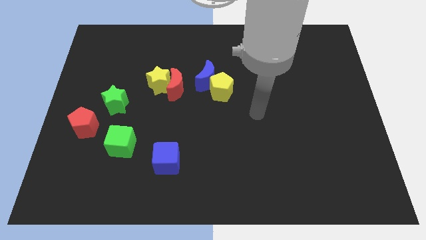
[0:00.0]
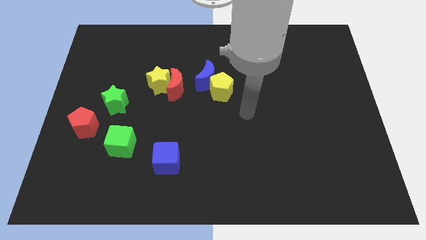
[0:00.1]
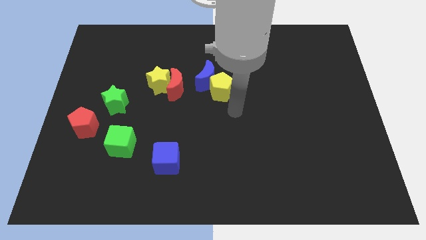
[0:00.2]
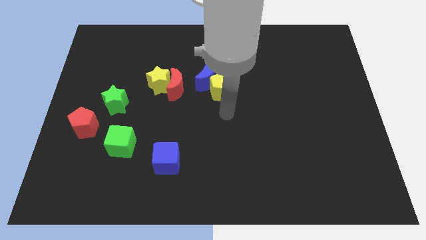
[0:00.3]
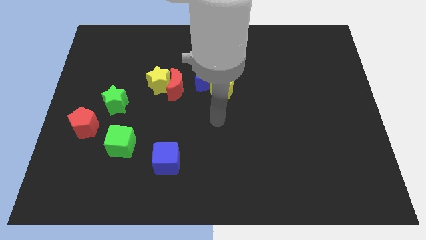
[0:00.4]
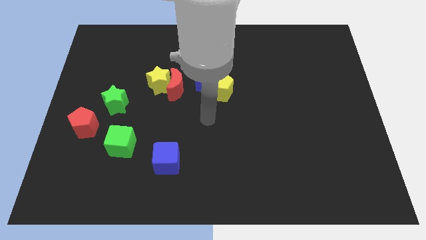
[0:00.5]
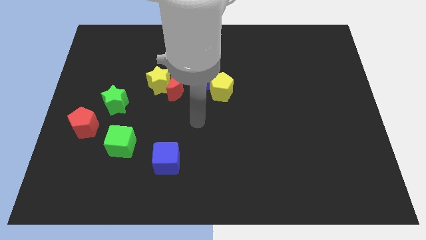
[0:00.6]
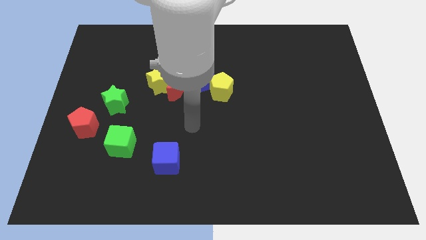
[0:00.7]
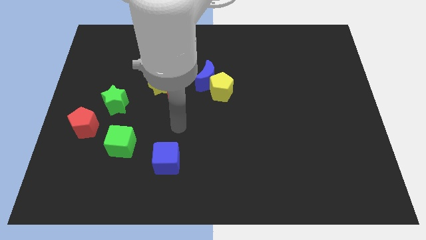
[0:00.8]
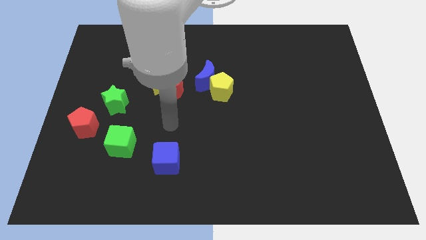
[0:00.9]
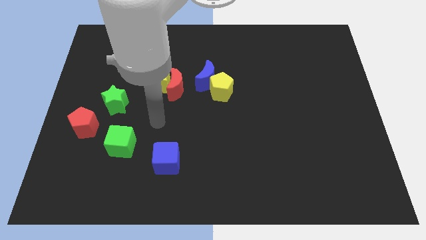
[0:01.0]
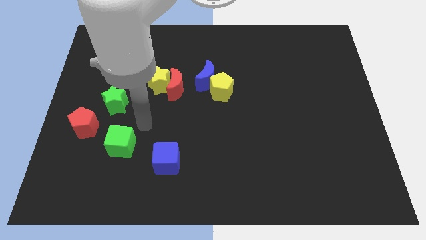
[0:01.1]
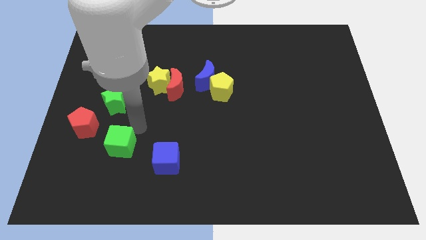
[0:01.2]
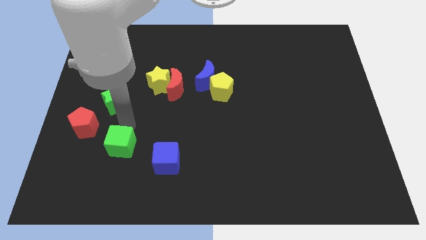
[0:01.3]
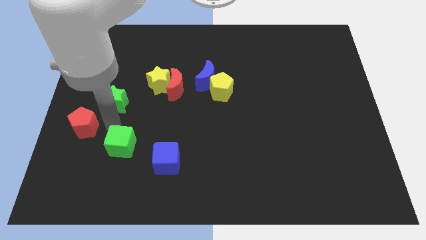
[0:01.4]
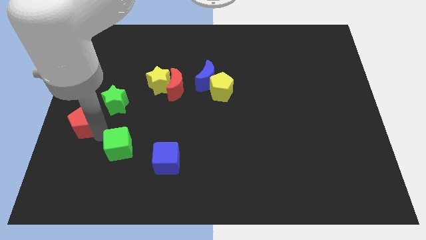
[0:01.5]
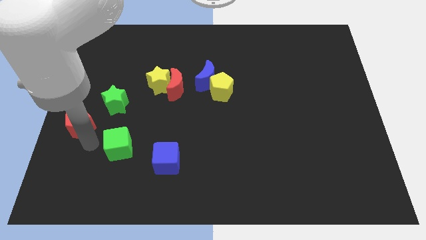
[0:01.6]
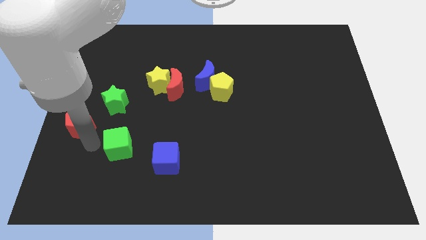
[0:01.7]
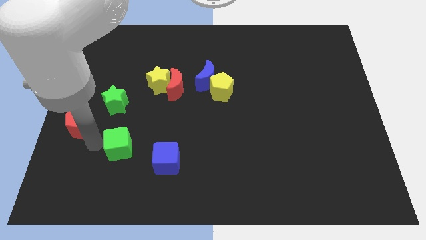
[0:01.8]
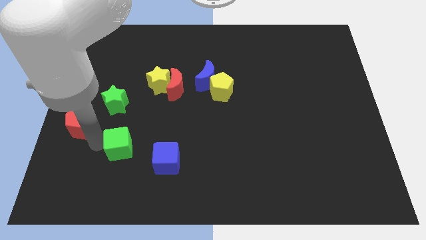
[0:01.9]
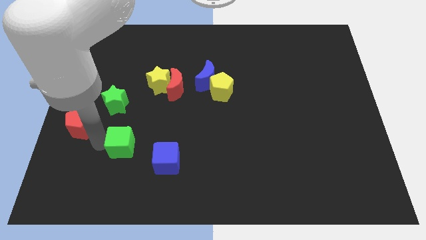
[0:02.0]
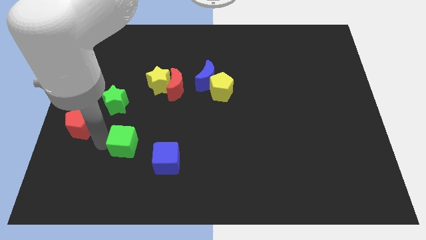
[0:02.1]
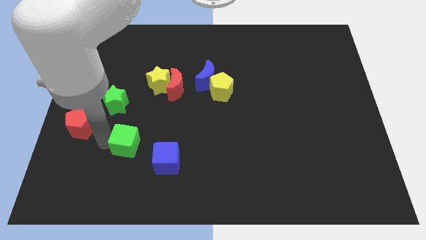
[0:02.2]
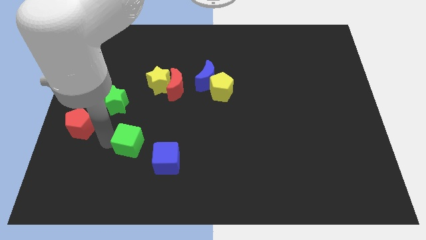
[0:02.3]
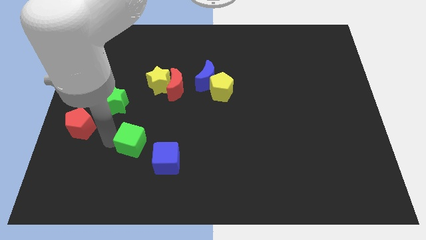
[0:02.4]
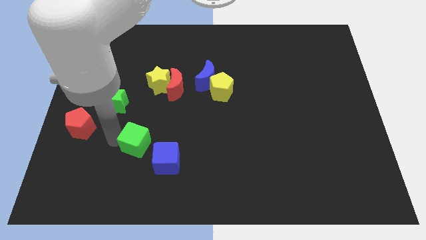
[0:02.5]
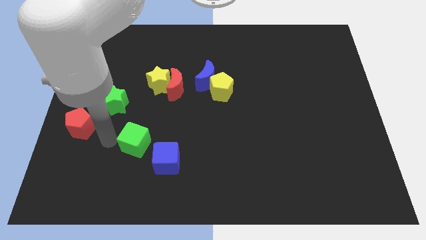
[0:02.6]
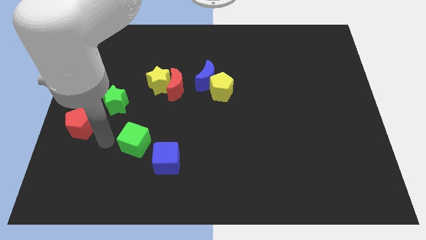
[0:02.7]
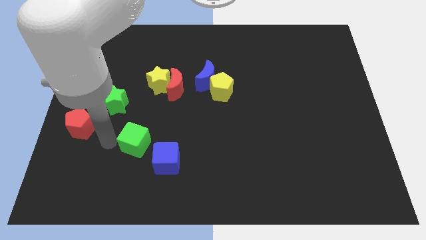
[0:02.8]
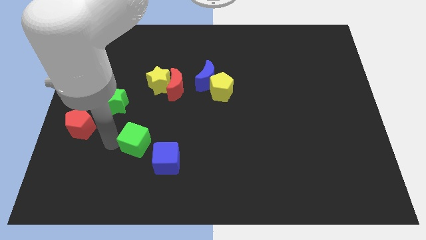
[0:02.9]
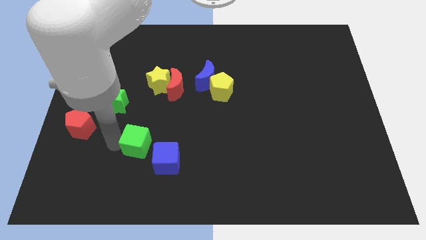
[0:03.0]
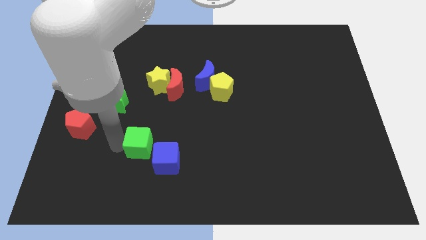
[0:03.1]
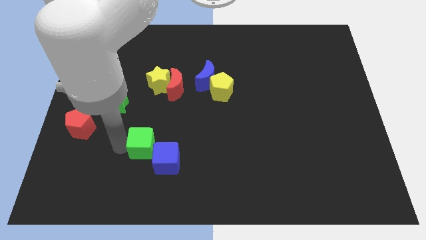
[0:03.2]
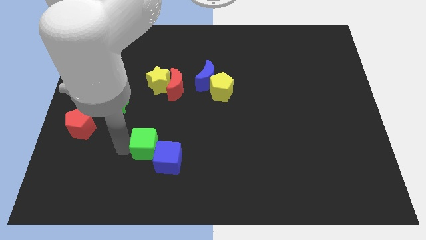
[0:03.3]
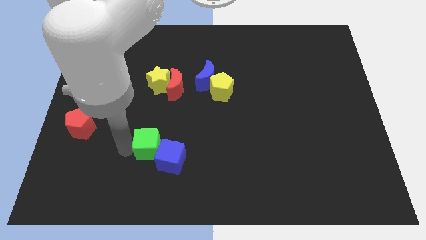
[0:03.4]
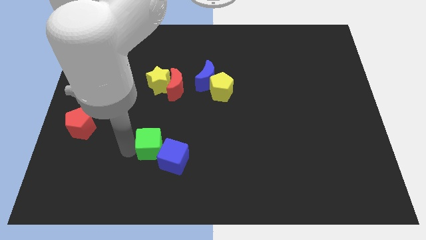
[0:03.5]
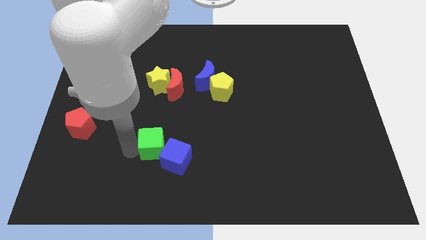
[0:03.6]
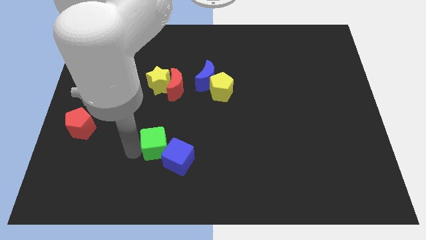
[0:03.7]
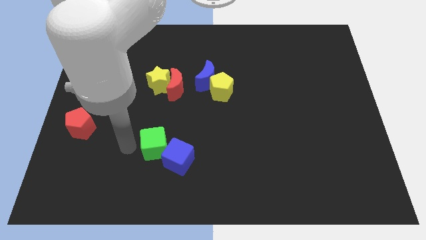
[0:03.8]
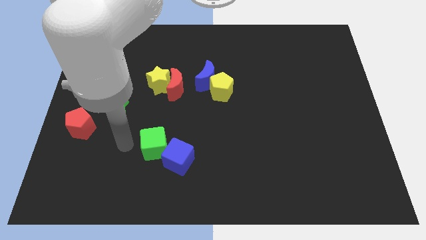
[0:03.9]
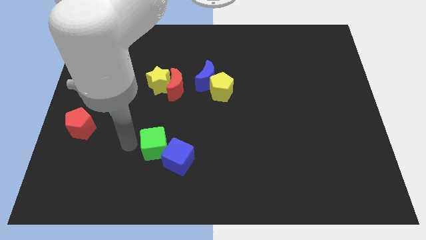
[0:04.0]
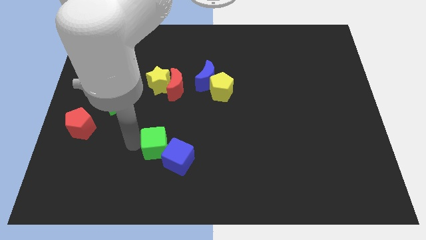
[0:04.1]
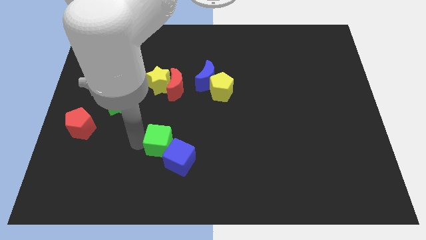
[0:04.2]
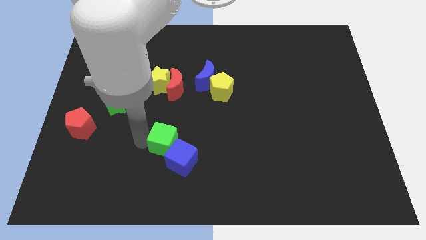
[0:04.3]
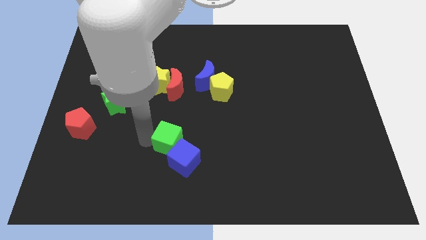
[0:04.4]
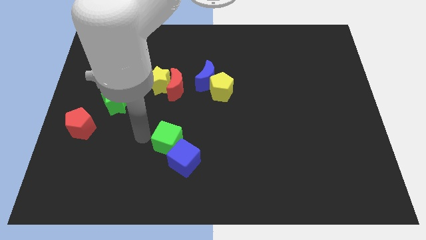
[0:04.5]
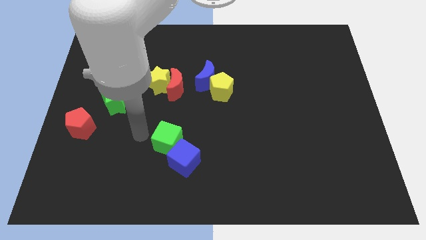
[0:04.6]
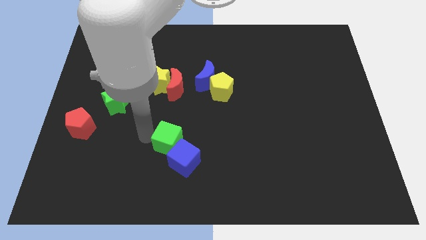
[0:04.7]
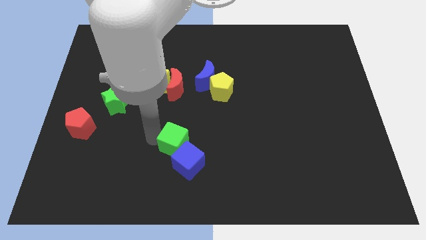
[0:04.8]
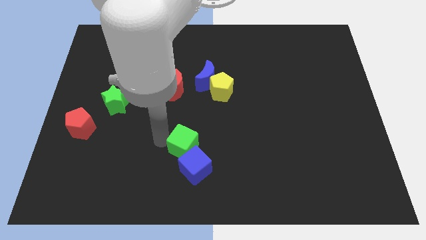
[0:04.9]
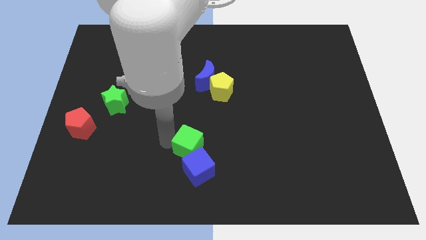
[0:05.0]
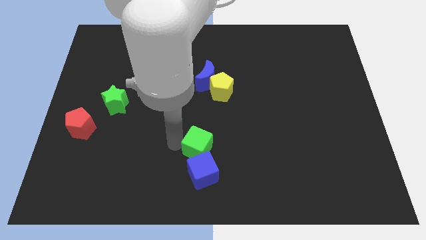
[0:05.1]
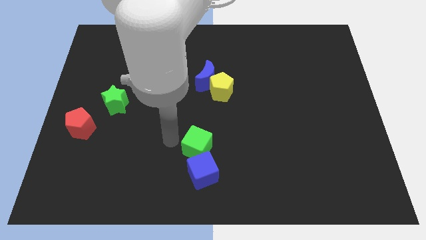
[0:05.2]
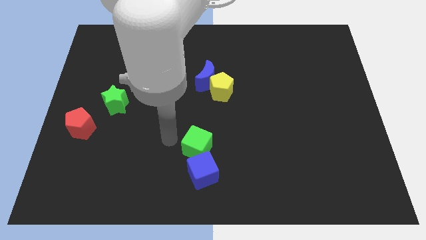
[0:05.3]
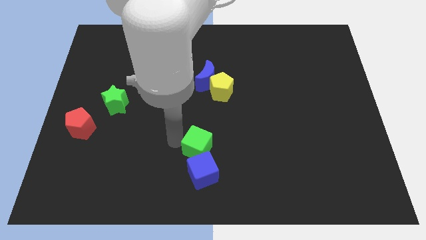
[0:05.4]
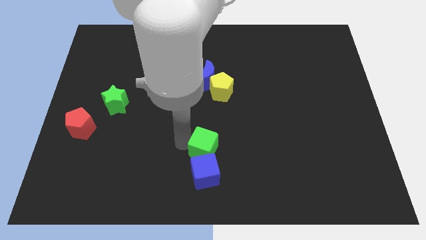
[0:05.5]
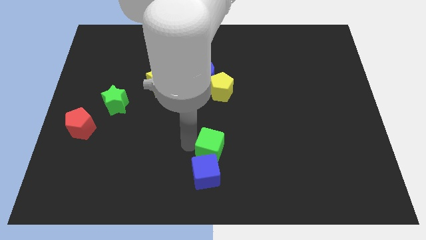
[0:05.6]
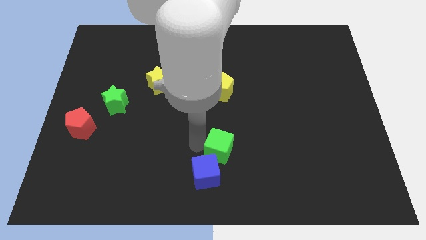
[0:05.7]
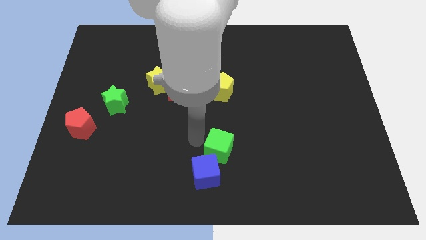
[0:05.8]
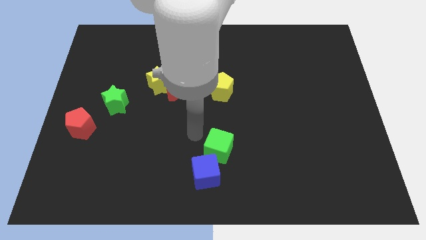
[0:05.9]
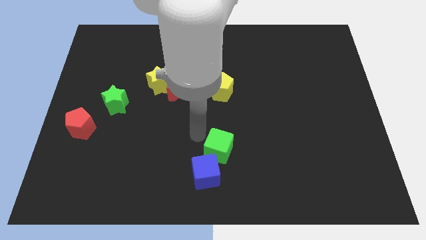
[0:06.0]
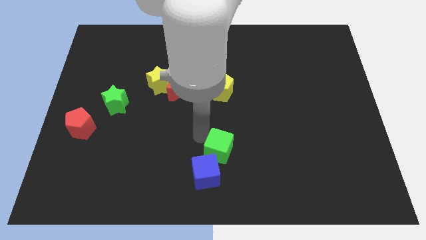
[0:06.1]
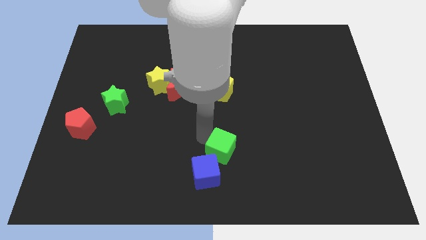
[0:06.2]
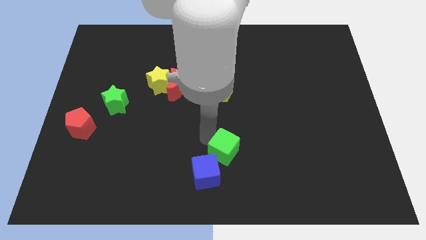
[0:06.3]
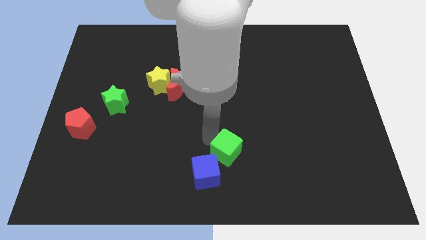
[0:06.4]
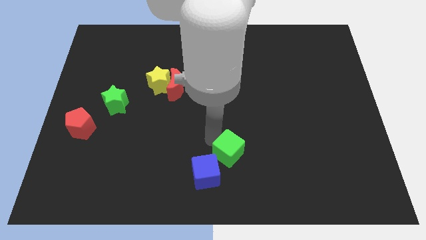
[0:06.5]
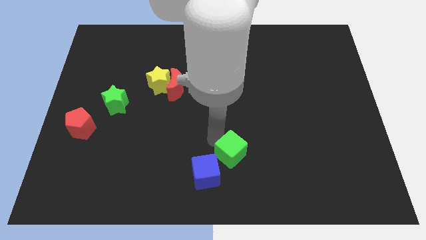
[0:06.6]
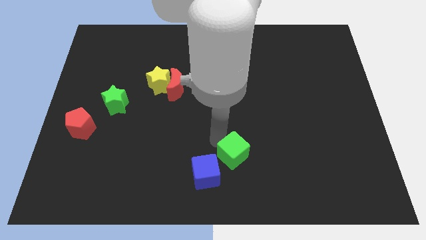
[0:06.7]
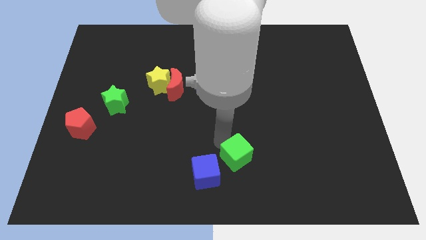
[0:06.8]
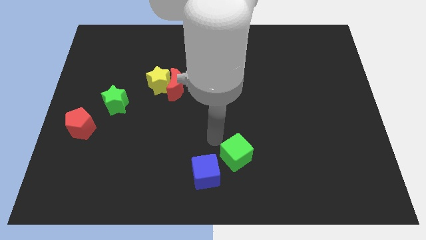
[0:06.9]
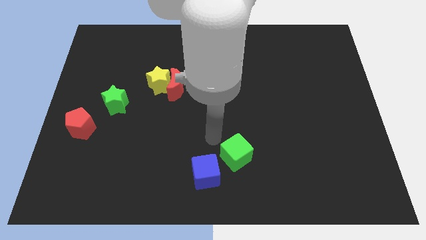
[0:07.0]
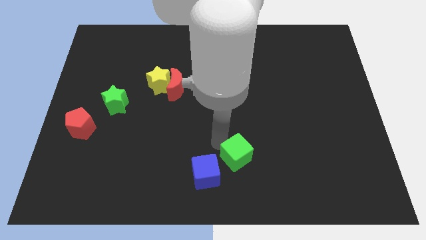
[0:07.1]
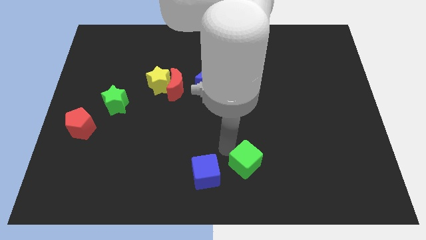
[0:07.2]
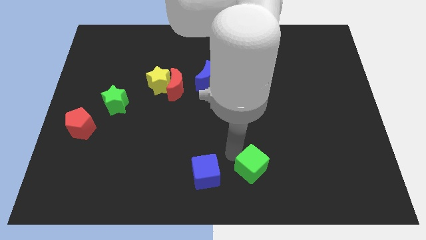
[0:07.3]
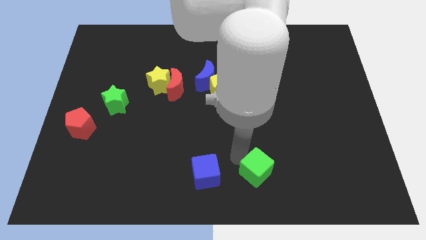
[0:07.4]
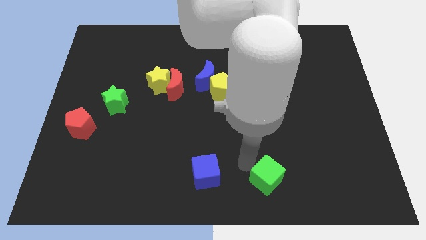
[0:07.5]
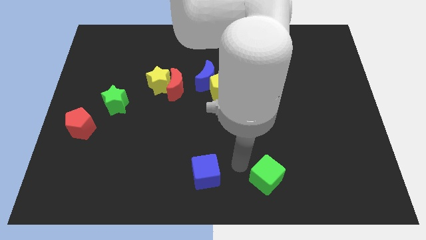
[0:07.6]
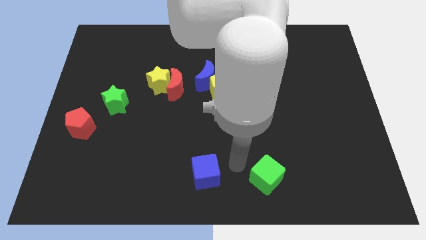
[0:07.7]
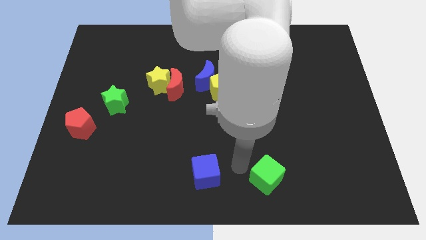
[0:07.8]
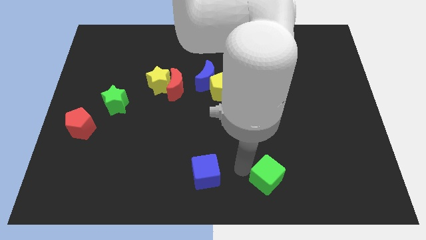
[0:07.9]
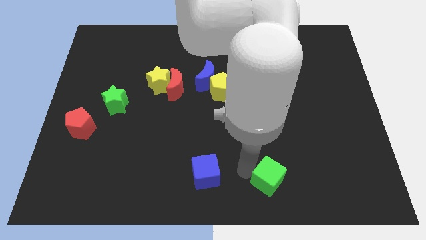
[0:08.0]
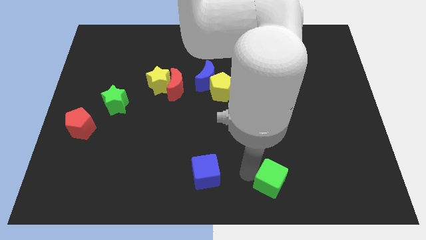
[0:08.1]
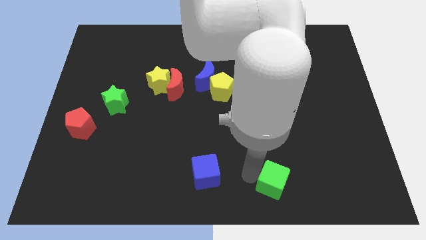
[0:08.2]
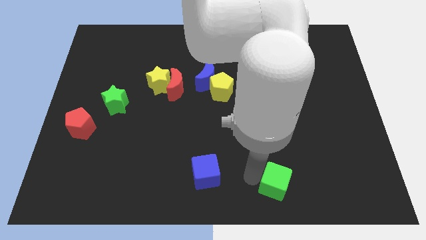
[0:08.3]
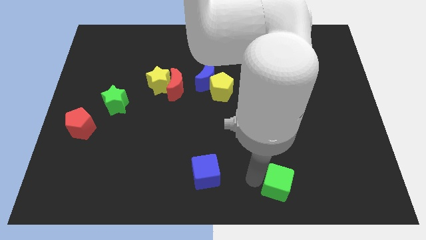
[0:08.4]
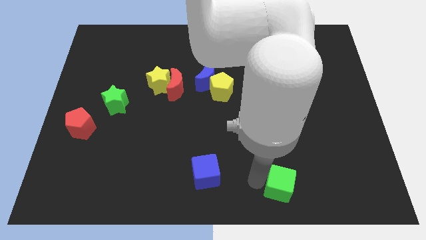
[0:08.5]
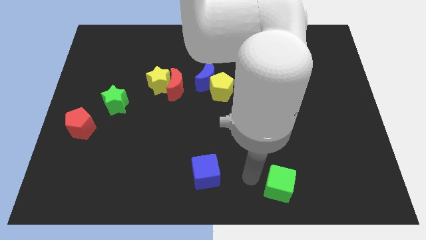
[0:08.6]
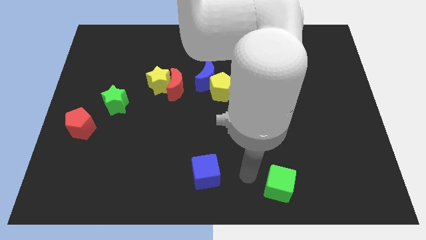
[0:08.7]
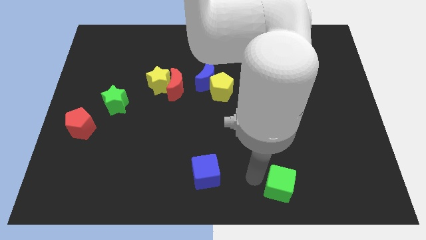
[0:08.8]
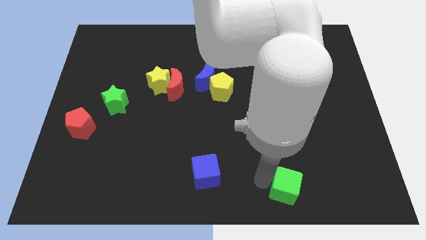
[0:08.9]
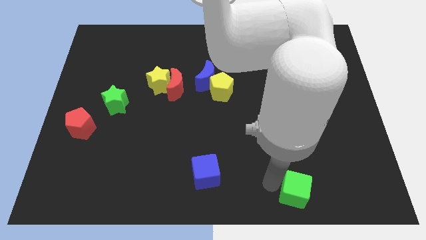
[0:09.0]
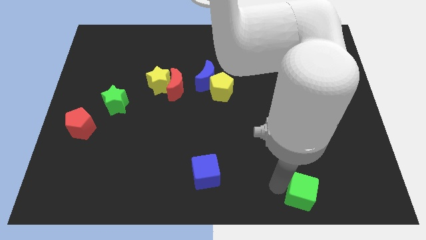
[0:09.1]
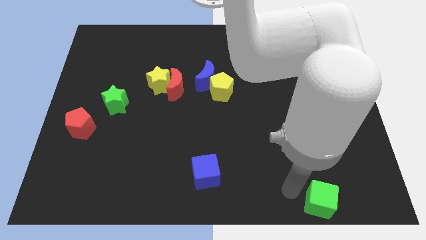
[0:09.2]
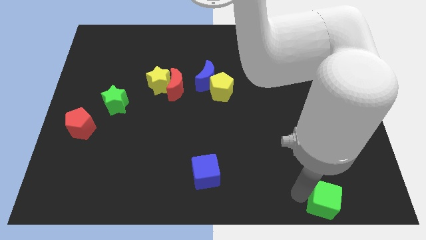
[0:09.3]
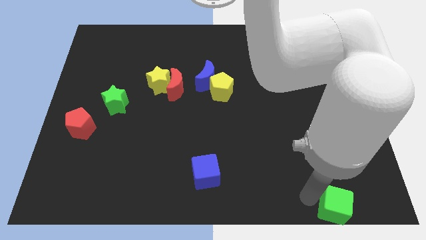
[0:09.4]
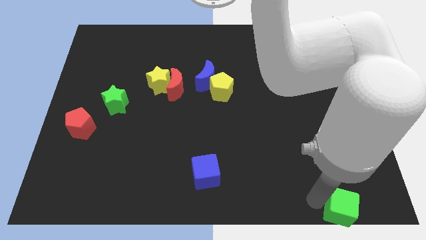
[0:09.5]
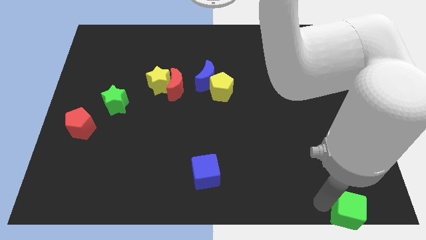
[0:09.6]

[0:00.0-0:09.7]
put the green cube to the lower right corner
